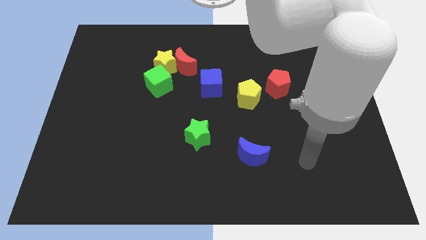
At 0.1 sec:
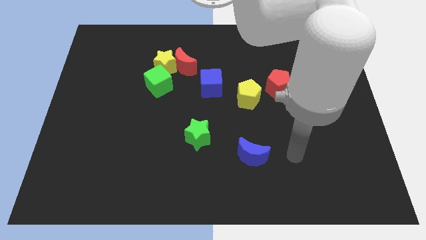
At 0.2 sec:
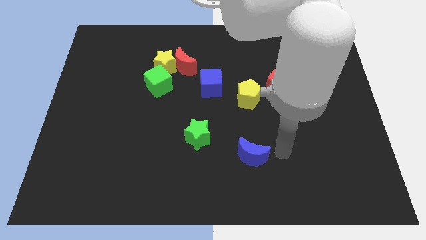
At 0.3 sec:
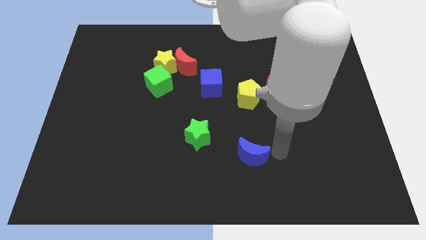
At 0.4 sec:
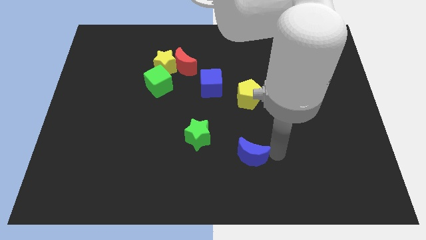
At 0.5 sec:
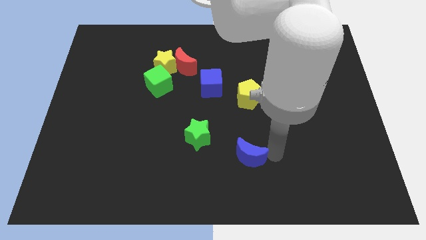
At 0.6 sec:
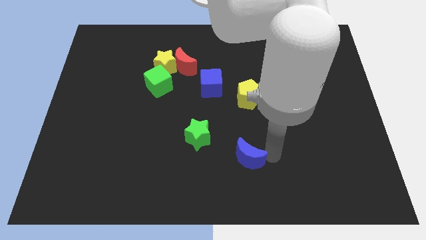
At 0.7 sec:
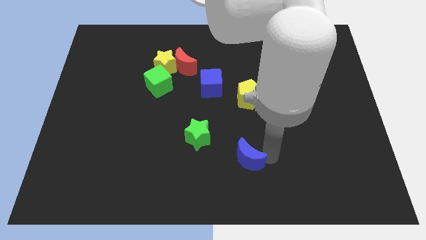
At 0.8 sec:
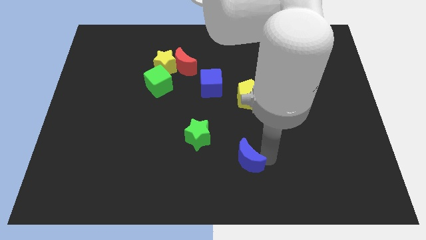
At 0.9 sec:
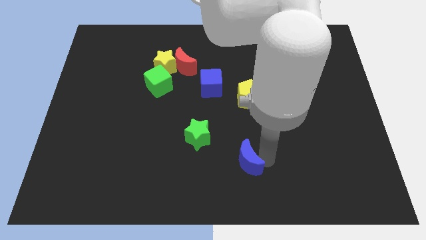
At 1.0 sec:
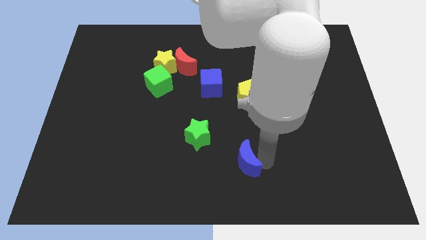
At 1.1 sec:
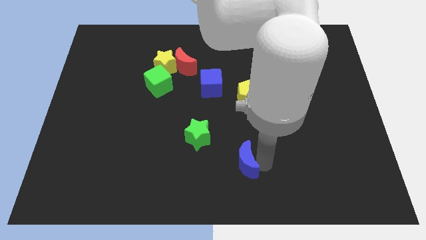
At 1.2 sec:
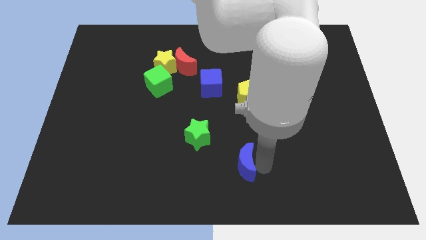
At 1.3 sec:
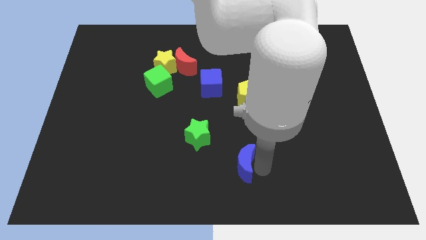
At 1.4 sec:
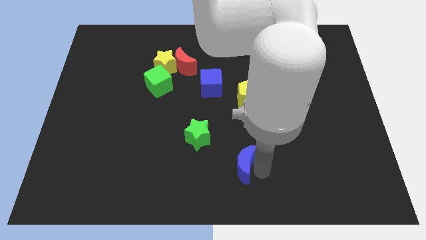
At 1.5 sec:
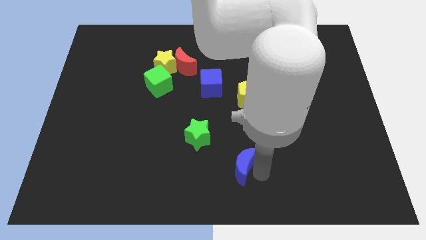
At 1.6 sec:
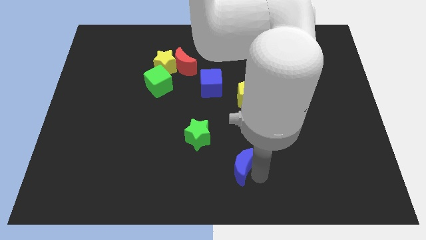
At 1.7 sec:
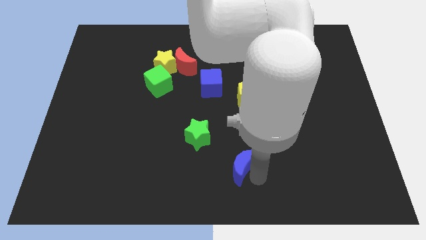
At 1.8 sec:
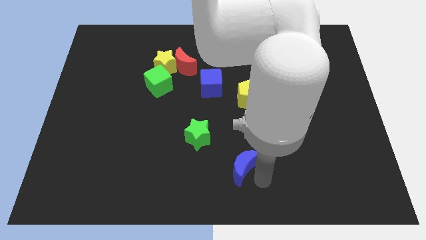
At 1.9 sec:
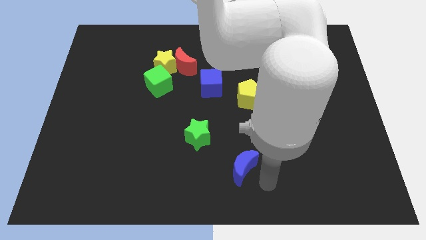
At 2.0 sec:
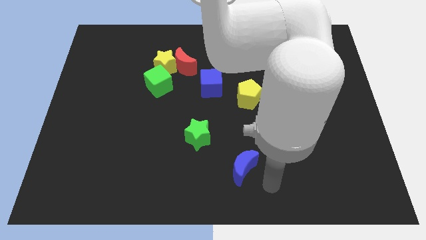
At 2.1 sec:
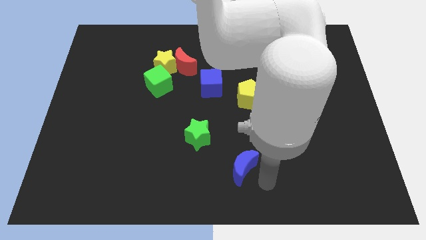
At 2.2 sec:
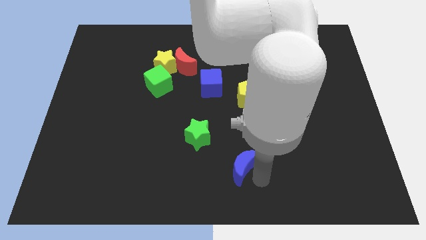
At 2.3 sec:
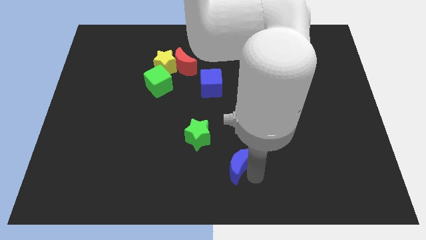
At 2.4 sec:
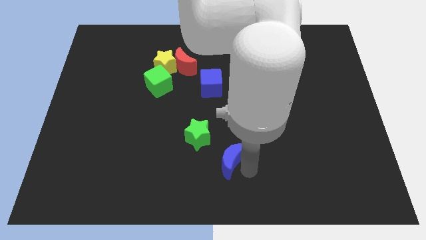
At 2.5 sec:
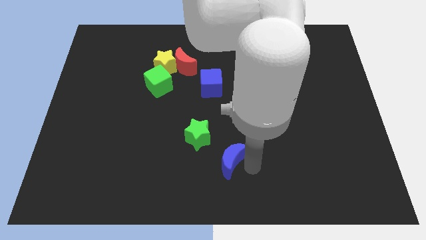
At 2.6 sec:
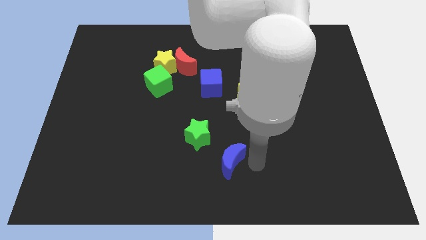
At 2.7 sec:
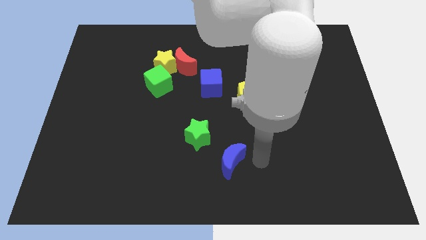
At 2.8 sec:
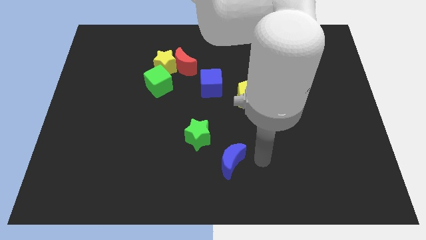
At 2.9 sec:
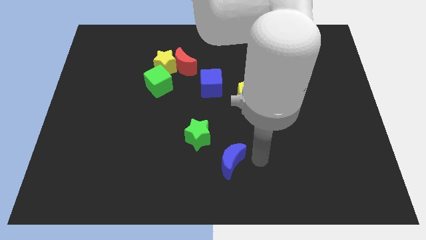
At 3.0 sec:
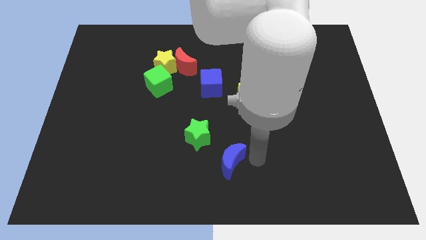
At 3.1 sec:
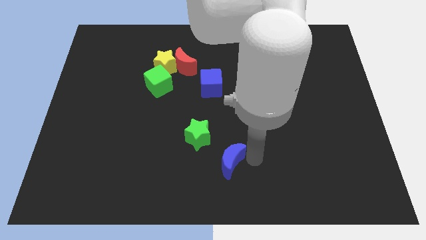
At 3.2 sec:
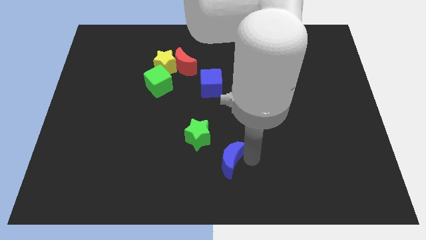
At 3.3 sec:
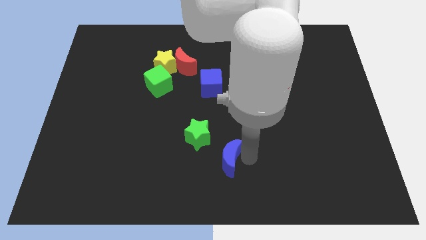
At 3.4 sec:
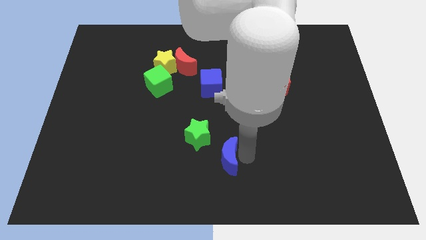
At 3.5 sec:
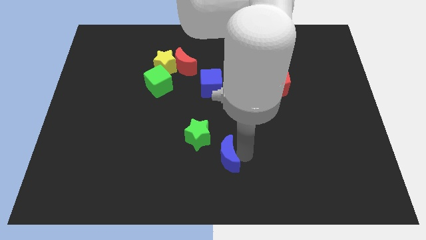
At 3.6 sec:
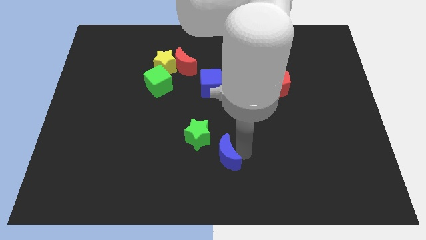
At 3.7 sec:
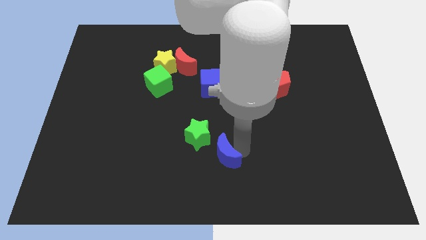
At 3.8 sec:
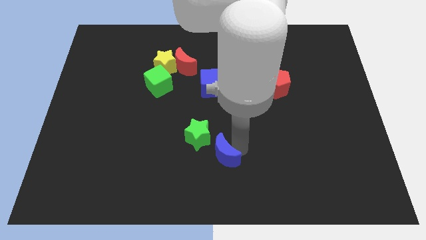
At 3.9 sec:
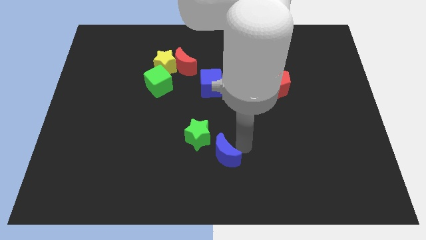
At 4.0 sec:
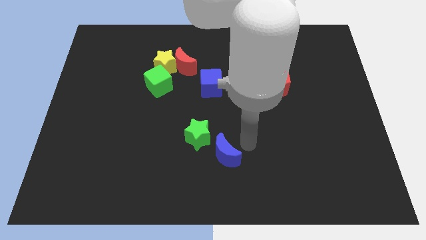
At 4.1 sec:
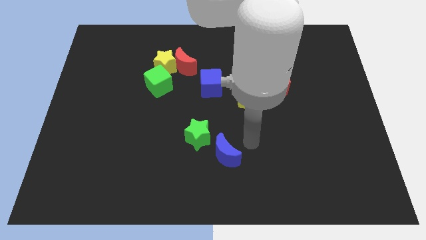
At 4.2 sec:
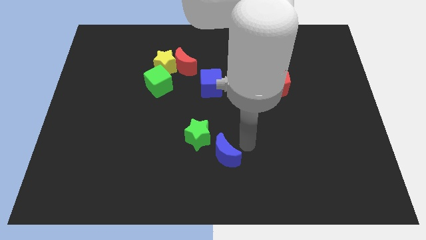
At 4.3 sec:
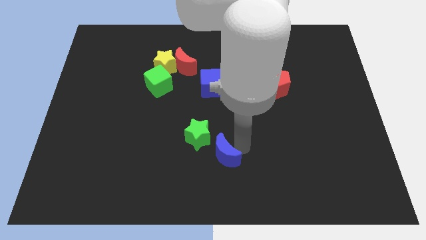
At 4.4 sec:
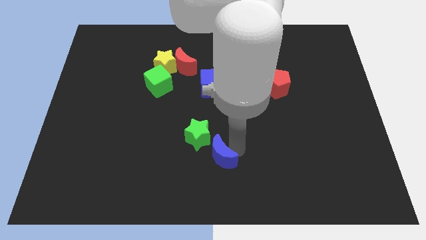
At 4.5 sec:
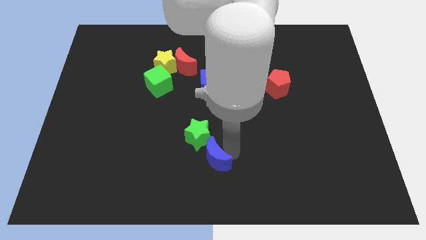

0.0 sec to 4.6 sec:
push the blue moon somewhat to the left

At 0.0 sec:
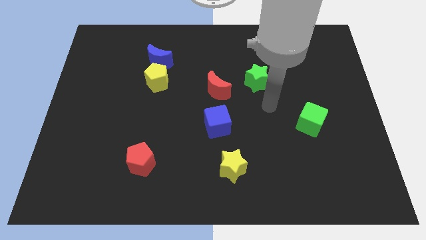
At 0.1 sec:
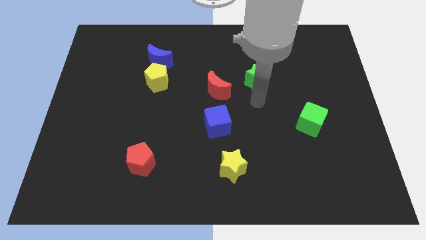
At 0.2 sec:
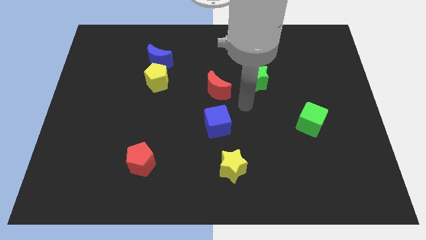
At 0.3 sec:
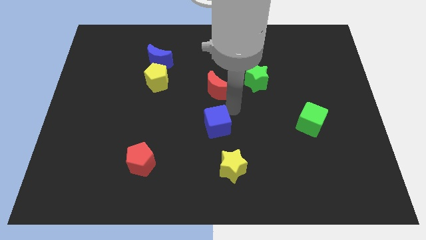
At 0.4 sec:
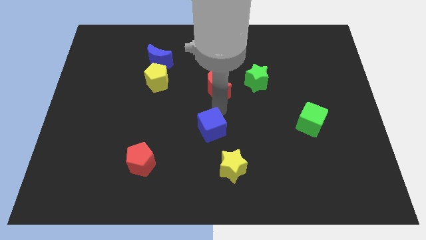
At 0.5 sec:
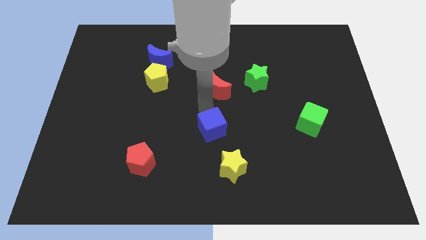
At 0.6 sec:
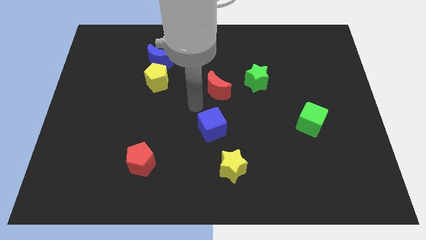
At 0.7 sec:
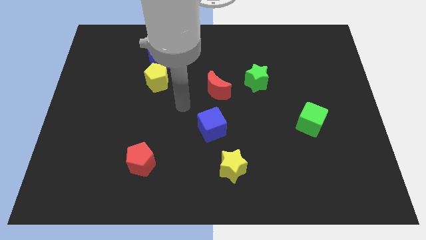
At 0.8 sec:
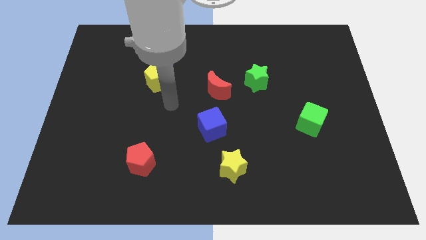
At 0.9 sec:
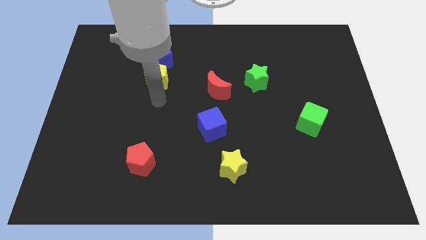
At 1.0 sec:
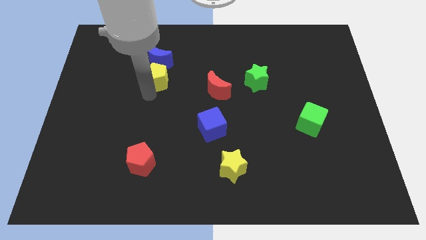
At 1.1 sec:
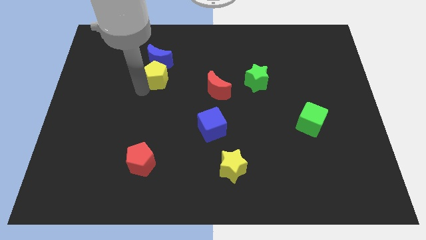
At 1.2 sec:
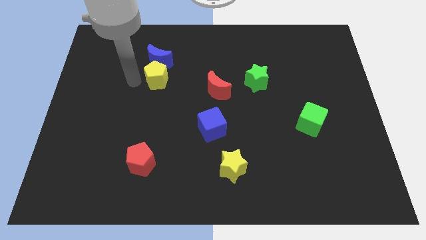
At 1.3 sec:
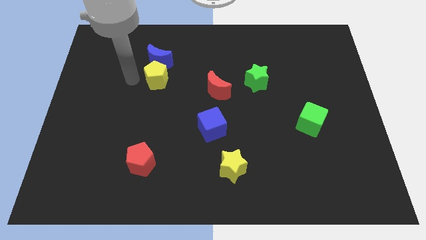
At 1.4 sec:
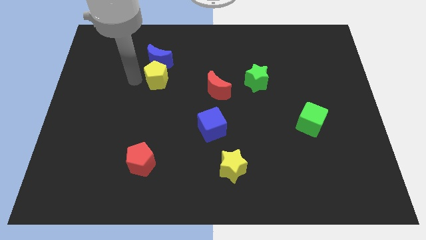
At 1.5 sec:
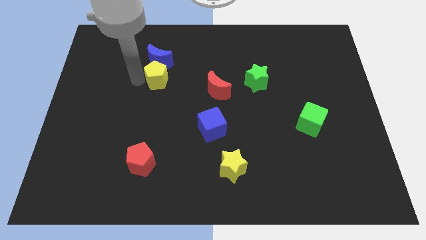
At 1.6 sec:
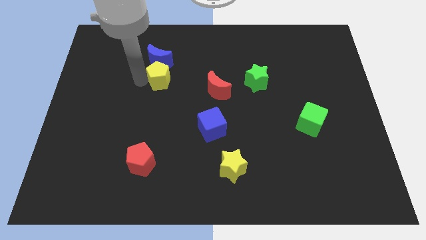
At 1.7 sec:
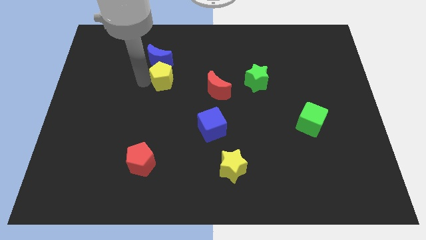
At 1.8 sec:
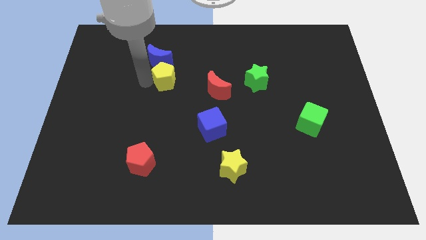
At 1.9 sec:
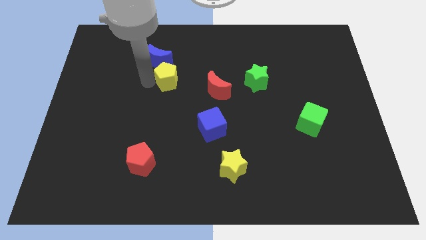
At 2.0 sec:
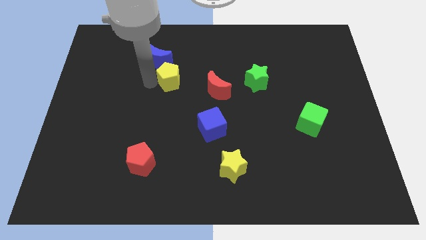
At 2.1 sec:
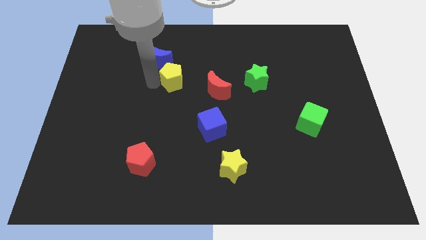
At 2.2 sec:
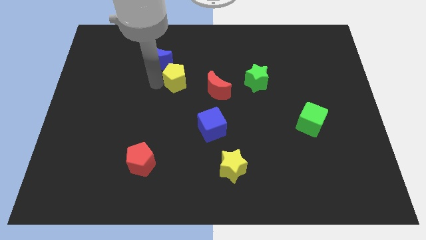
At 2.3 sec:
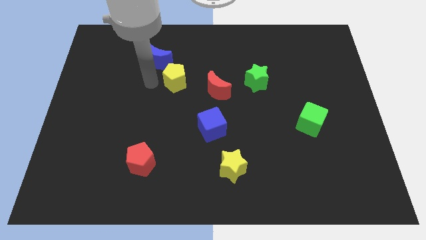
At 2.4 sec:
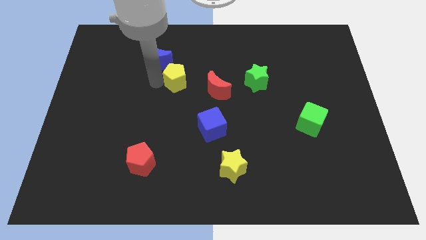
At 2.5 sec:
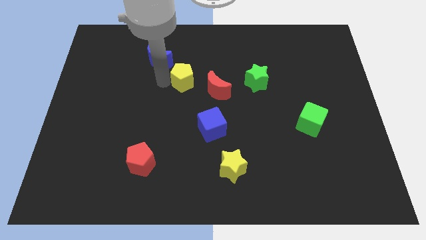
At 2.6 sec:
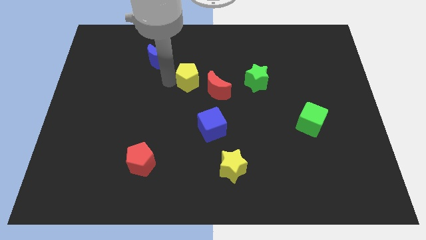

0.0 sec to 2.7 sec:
slide the yellow pentagon to the right a little bit

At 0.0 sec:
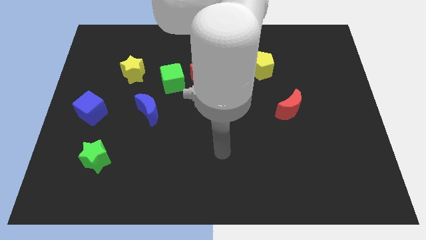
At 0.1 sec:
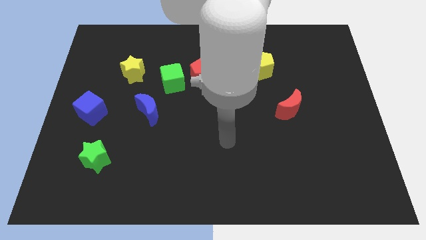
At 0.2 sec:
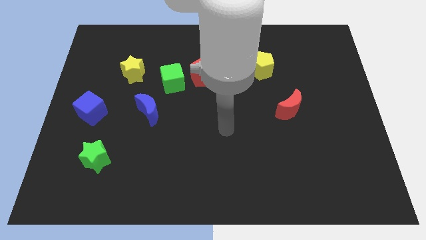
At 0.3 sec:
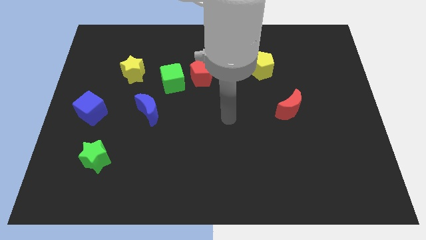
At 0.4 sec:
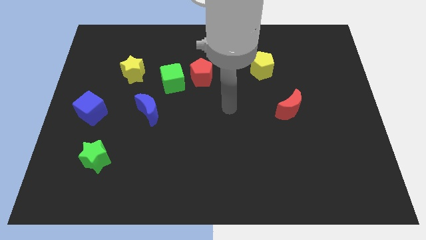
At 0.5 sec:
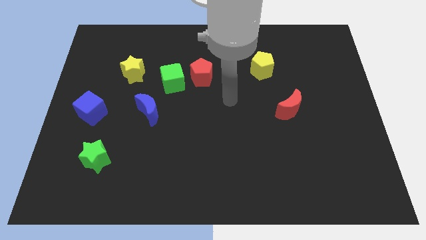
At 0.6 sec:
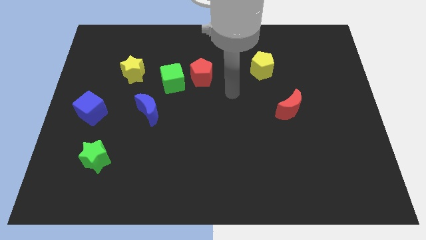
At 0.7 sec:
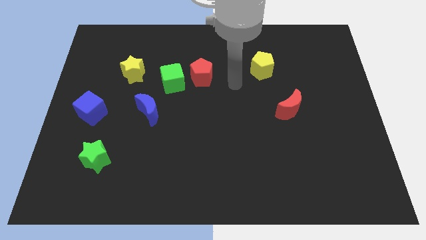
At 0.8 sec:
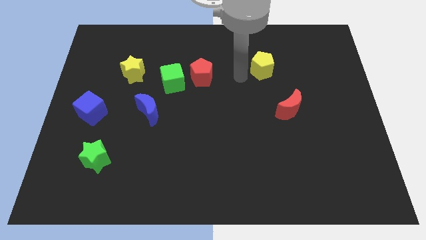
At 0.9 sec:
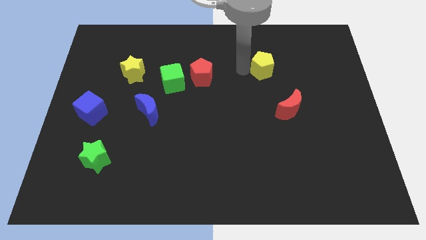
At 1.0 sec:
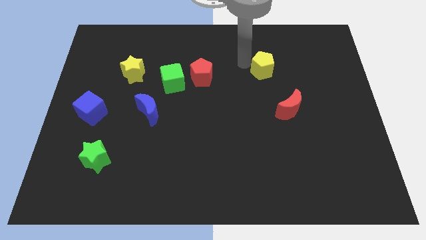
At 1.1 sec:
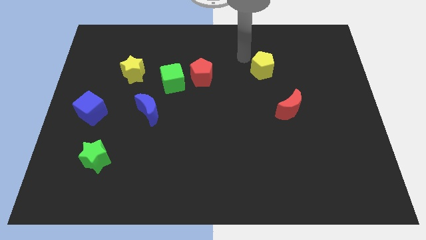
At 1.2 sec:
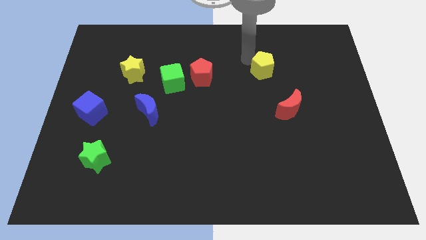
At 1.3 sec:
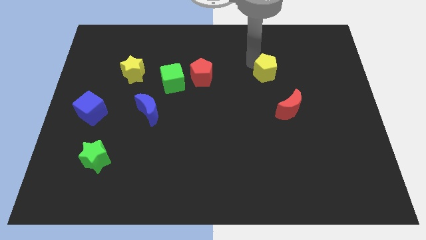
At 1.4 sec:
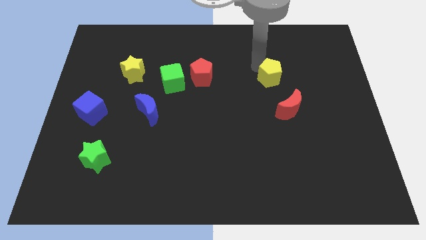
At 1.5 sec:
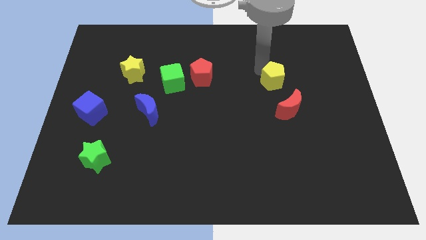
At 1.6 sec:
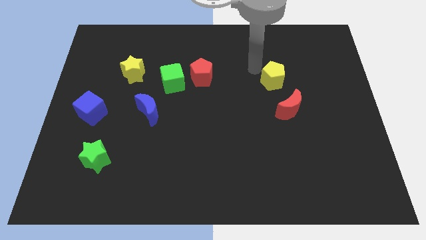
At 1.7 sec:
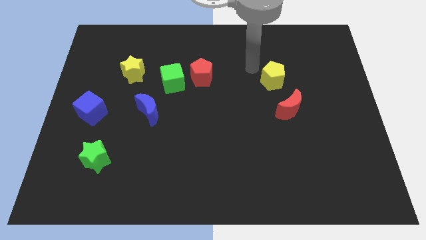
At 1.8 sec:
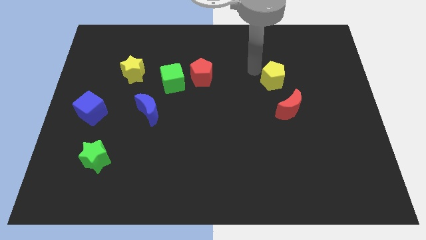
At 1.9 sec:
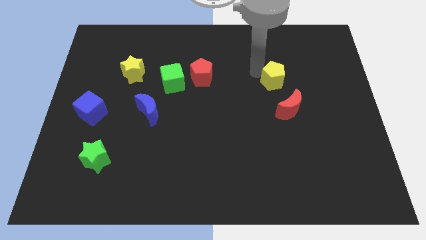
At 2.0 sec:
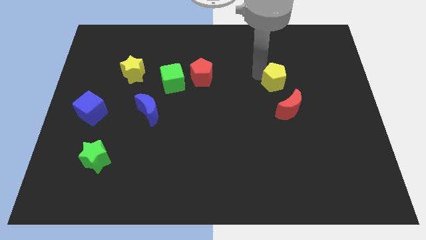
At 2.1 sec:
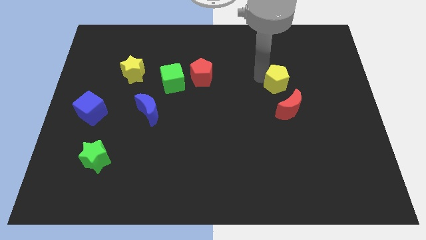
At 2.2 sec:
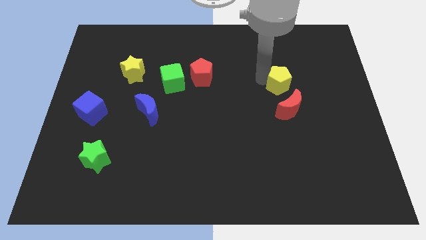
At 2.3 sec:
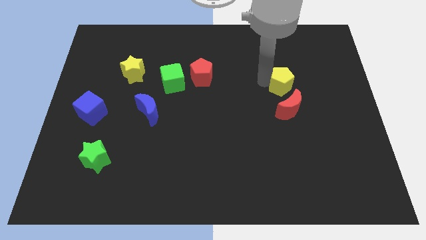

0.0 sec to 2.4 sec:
slightly push the yellow pentagon downwards and then right
